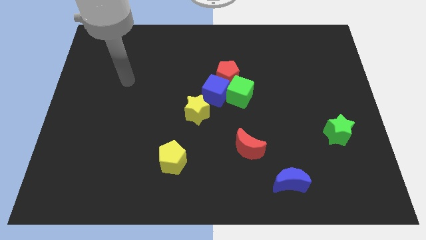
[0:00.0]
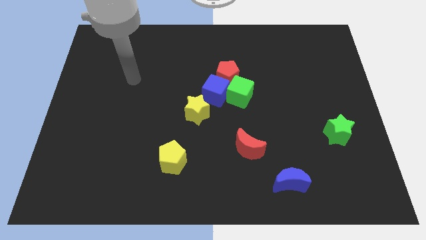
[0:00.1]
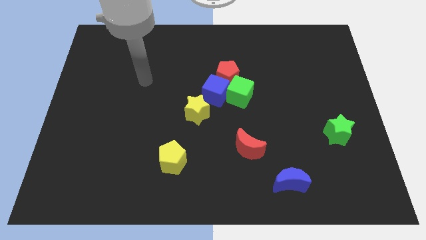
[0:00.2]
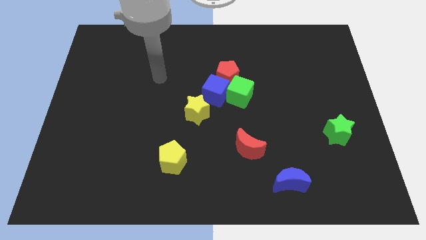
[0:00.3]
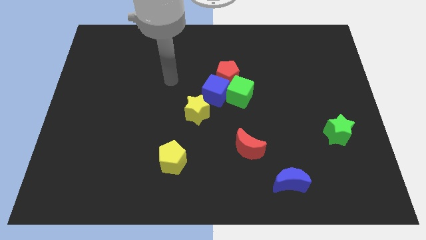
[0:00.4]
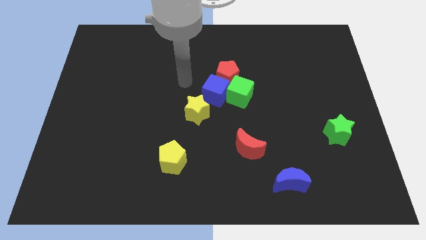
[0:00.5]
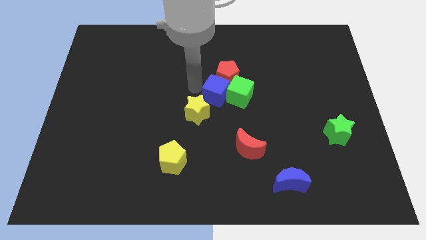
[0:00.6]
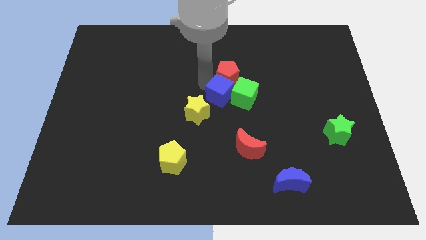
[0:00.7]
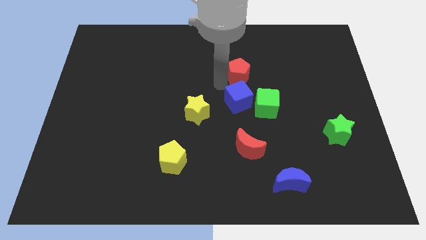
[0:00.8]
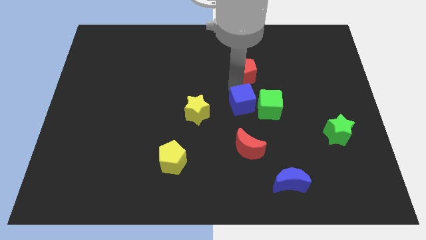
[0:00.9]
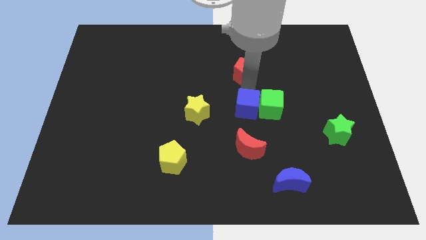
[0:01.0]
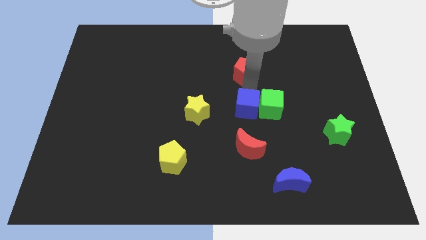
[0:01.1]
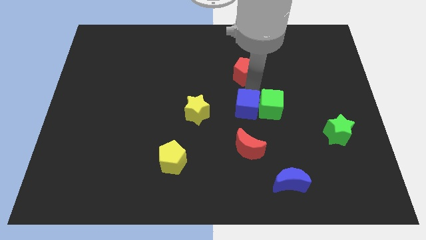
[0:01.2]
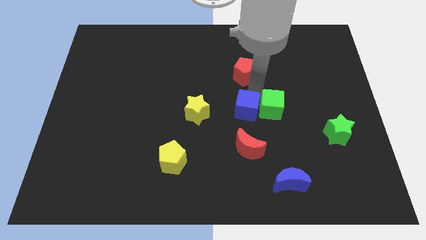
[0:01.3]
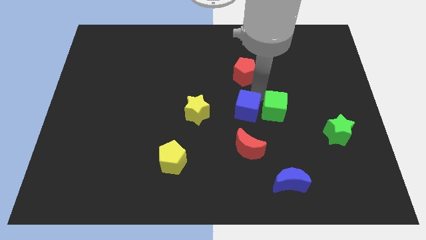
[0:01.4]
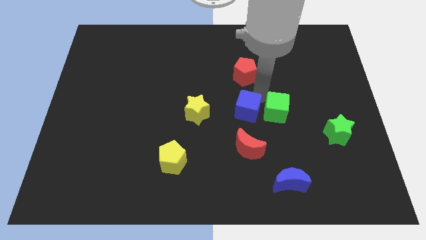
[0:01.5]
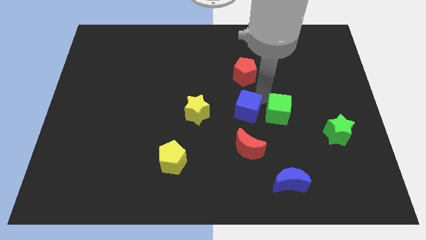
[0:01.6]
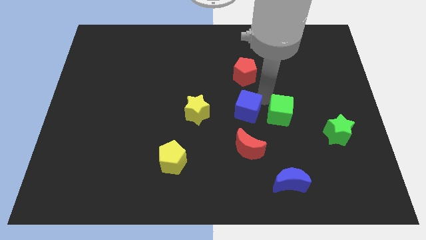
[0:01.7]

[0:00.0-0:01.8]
move the green cube away from the blue cube and red pentagon

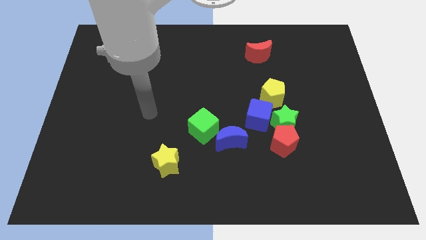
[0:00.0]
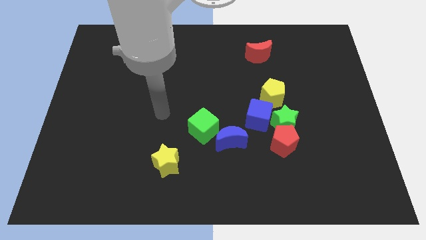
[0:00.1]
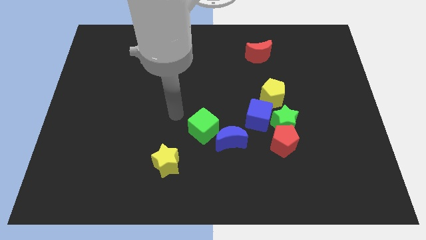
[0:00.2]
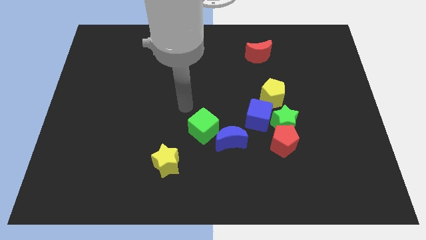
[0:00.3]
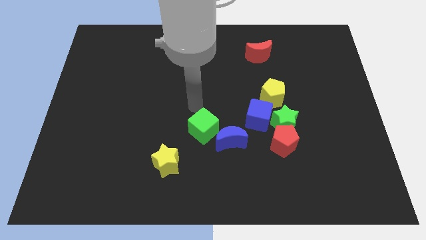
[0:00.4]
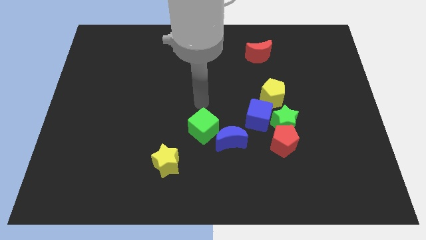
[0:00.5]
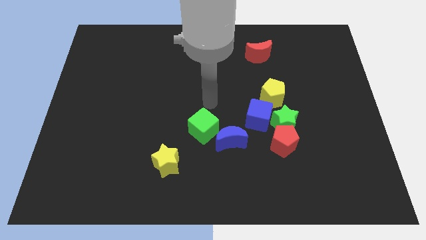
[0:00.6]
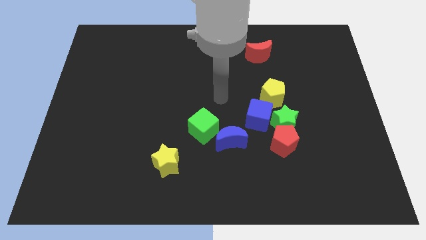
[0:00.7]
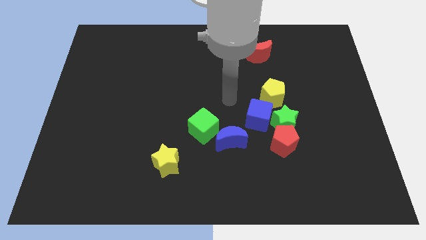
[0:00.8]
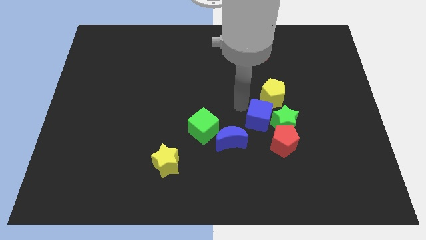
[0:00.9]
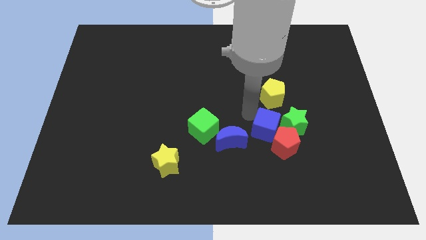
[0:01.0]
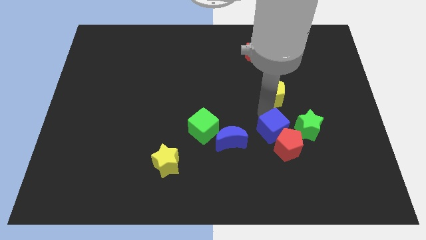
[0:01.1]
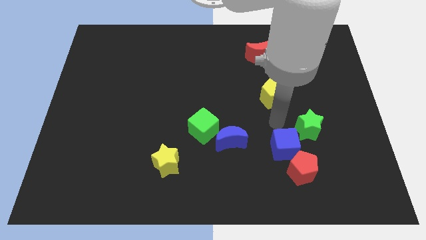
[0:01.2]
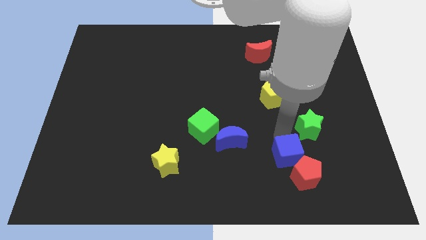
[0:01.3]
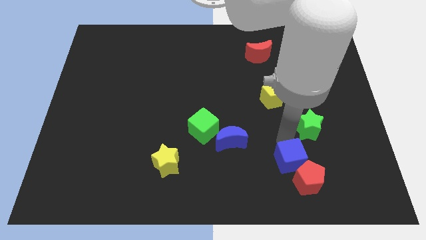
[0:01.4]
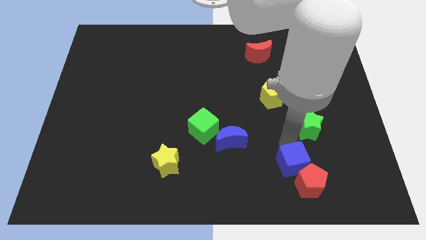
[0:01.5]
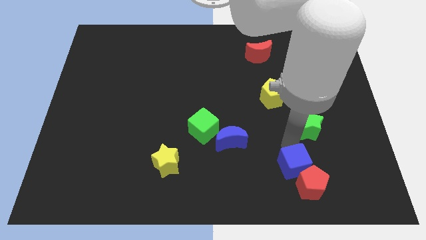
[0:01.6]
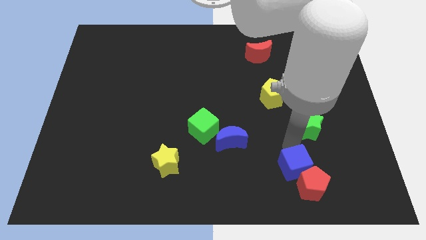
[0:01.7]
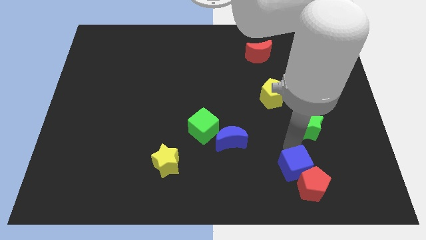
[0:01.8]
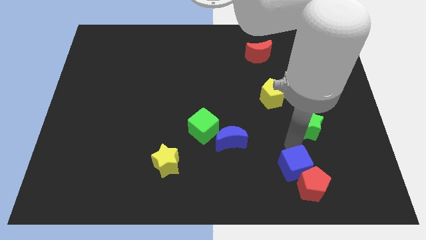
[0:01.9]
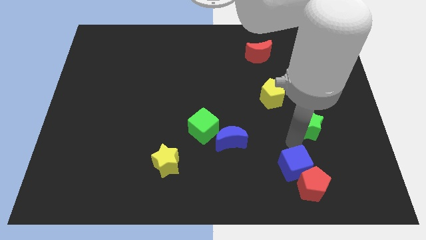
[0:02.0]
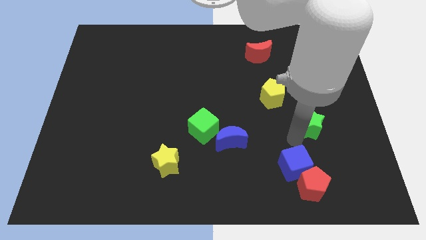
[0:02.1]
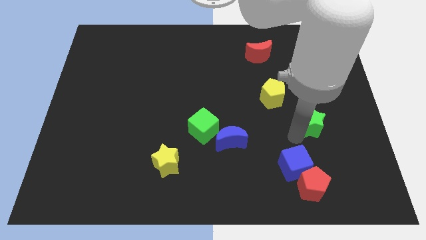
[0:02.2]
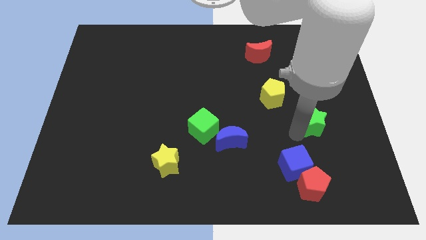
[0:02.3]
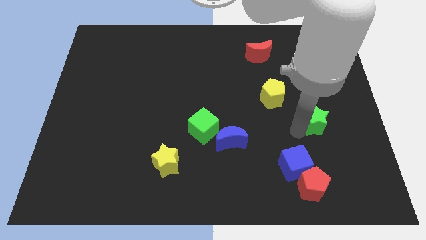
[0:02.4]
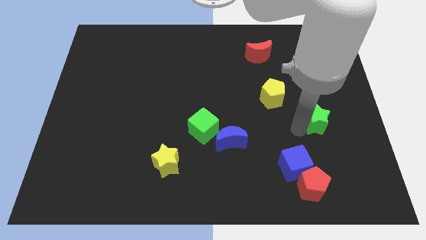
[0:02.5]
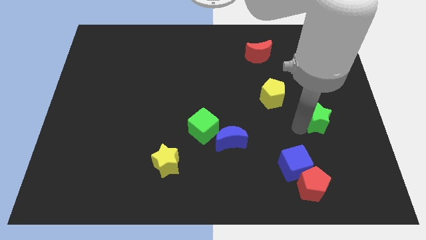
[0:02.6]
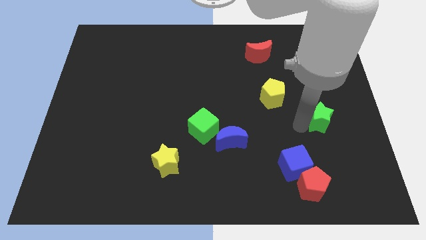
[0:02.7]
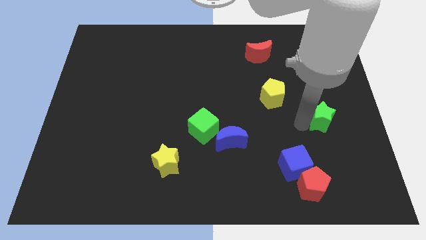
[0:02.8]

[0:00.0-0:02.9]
move the green star away from the red pentagon, blue cube, and yellow pentagon

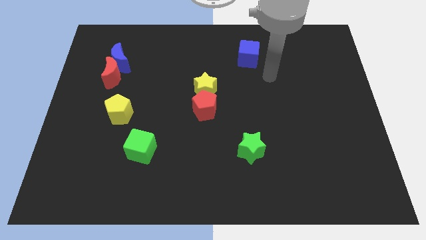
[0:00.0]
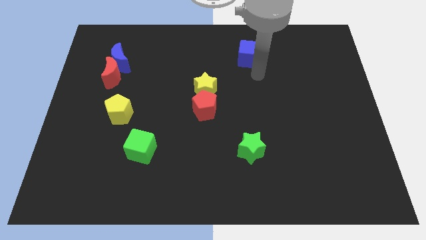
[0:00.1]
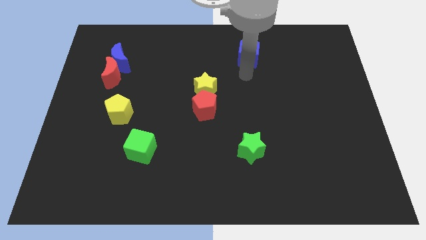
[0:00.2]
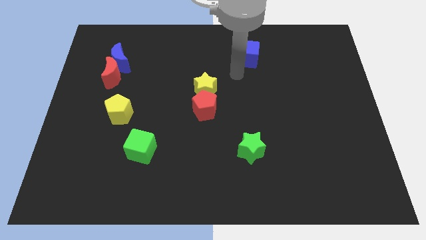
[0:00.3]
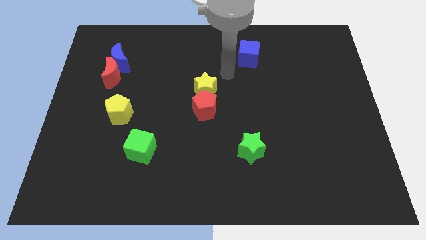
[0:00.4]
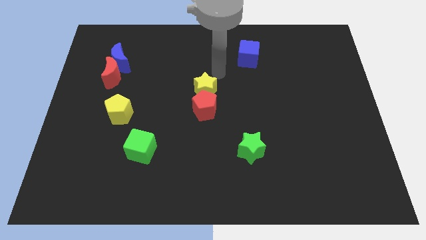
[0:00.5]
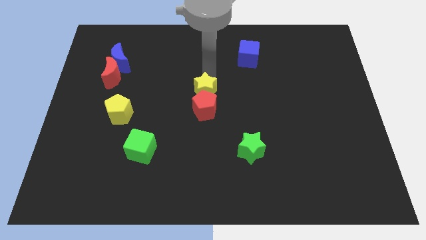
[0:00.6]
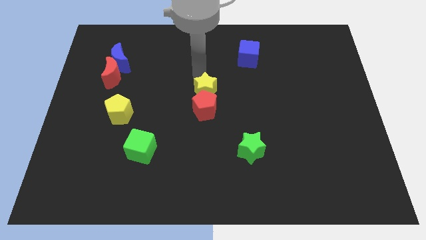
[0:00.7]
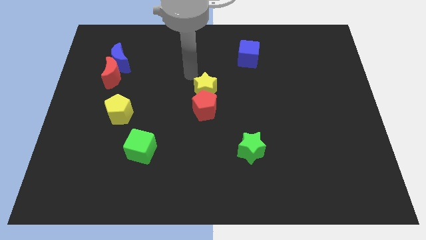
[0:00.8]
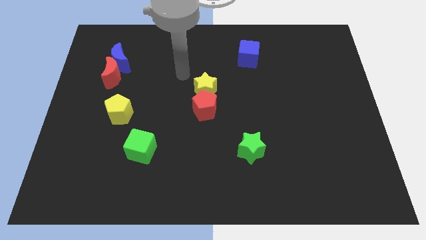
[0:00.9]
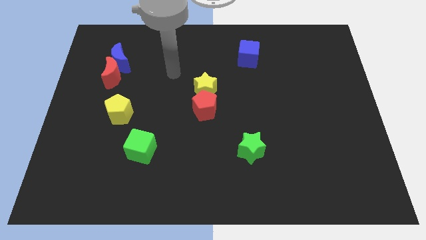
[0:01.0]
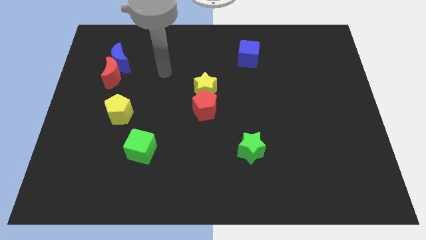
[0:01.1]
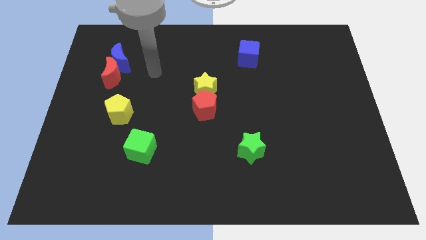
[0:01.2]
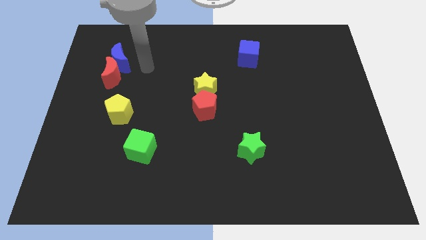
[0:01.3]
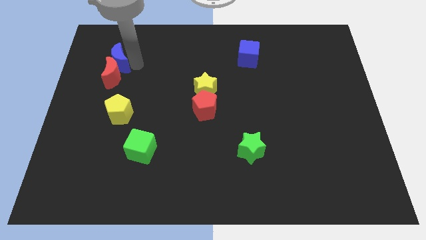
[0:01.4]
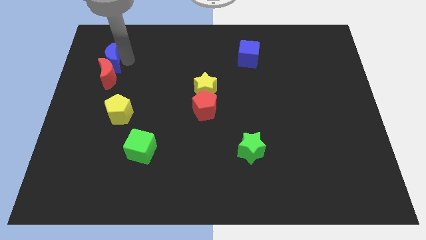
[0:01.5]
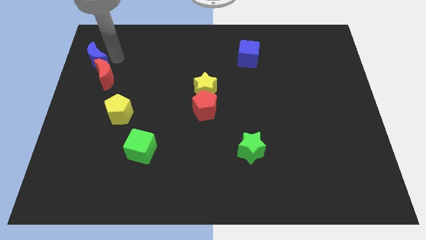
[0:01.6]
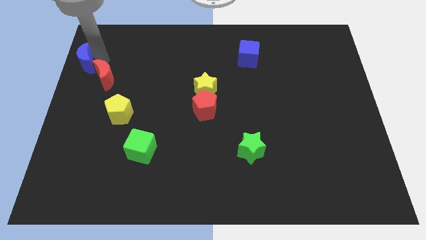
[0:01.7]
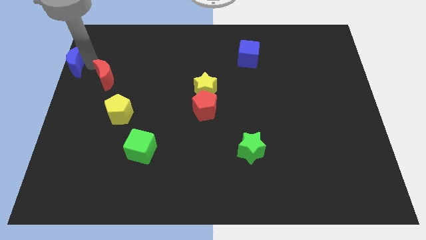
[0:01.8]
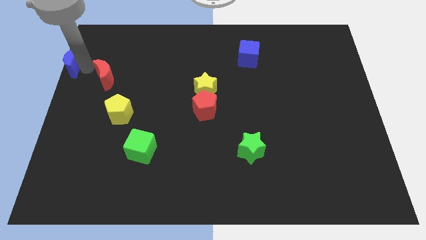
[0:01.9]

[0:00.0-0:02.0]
move the red moon away from the blue moon

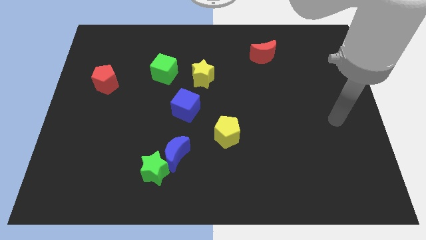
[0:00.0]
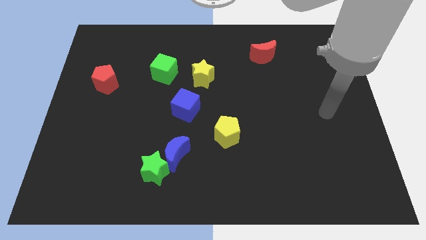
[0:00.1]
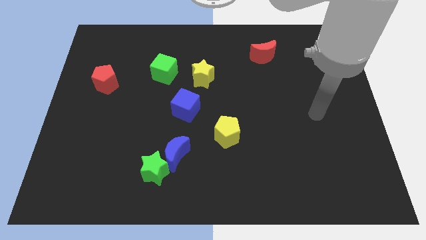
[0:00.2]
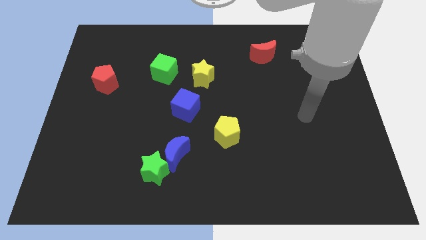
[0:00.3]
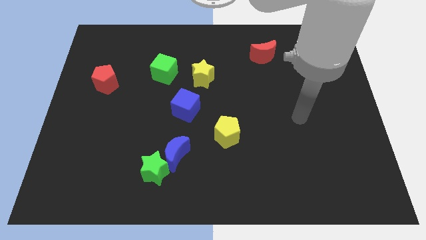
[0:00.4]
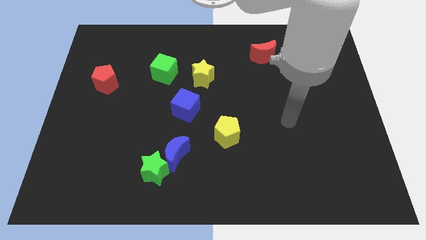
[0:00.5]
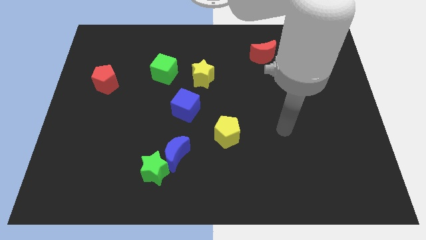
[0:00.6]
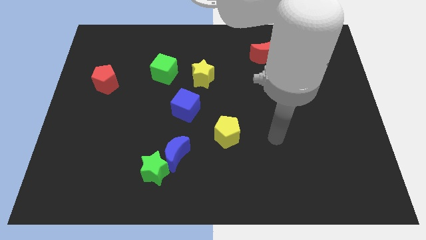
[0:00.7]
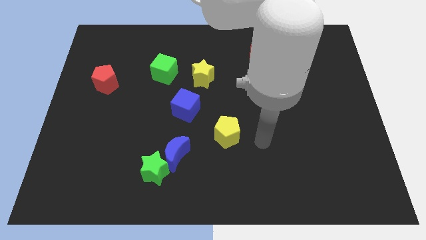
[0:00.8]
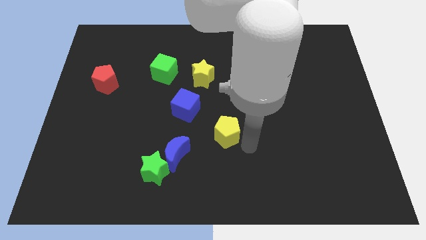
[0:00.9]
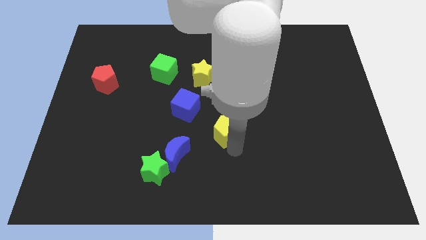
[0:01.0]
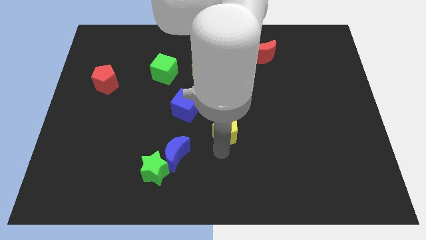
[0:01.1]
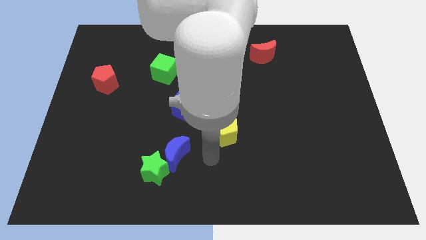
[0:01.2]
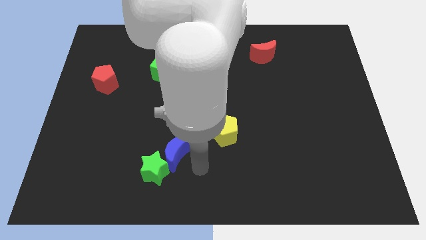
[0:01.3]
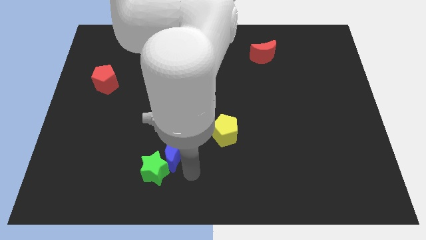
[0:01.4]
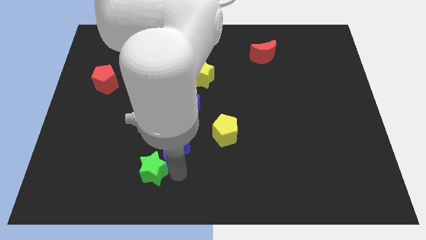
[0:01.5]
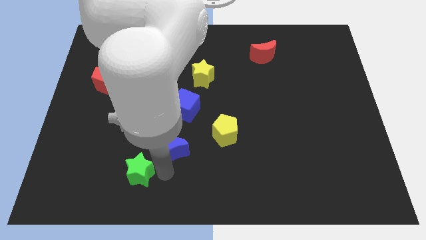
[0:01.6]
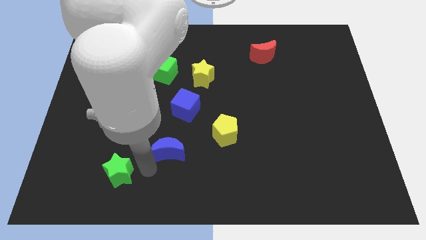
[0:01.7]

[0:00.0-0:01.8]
pull the blue moon apart from the green star

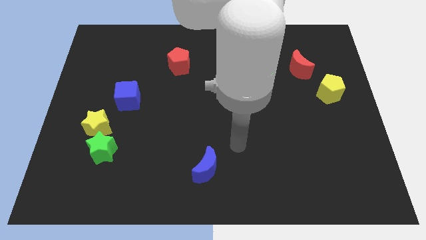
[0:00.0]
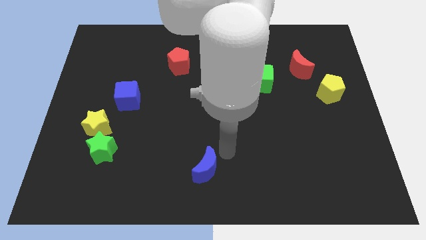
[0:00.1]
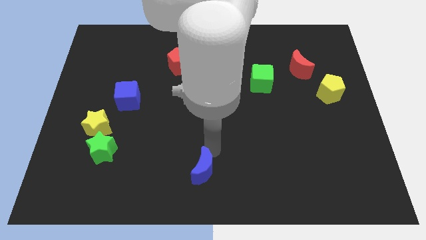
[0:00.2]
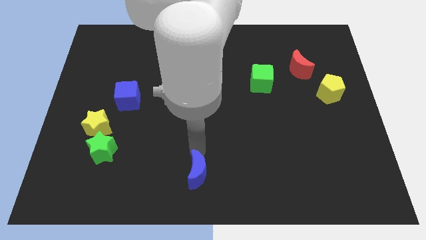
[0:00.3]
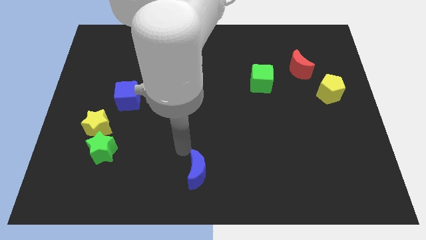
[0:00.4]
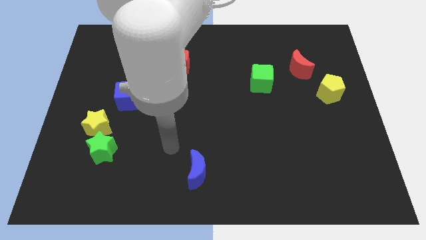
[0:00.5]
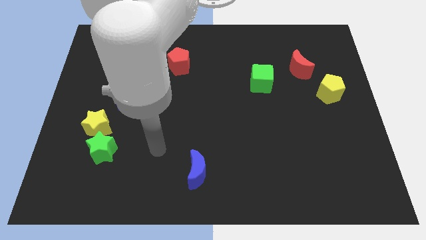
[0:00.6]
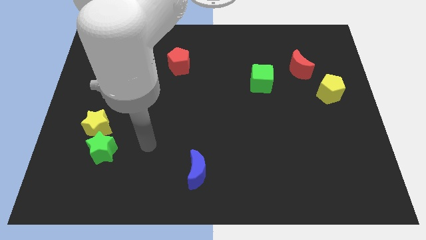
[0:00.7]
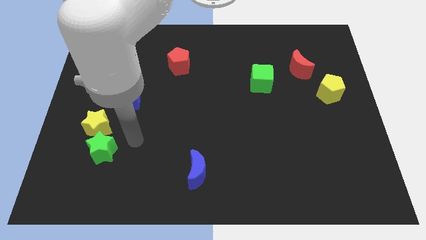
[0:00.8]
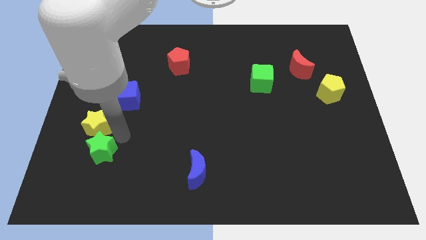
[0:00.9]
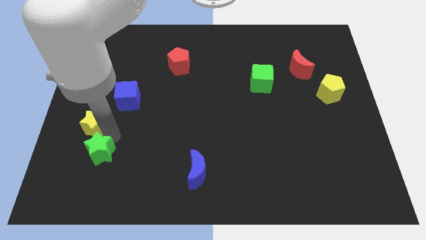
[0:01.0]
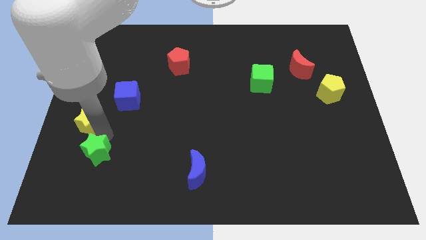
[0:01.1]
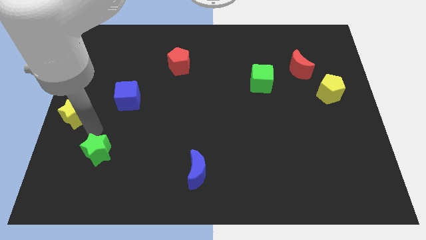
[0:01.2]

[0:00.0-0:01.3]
separate the green star from the yellow star
